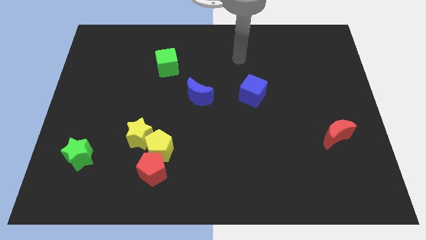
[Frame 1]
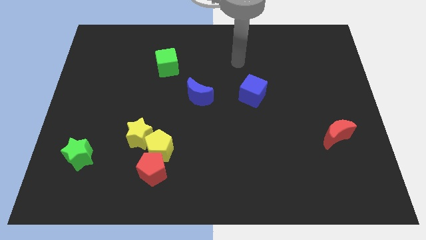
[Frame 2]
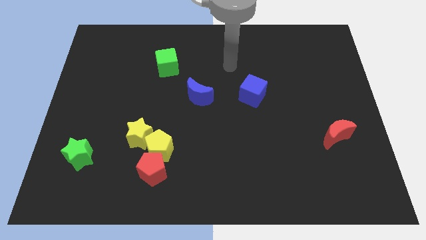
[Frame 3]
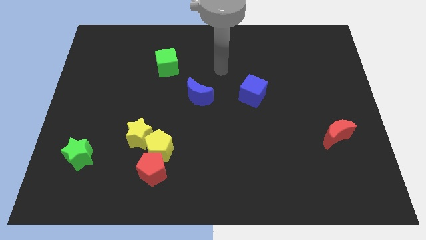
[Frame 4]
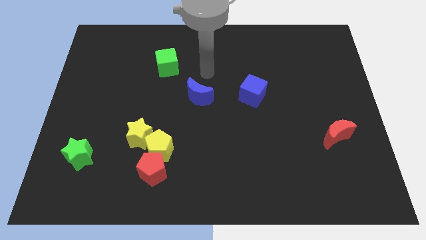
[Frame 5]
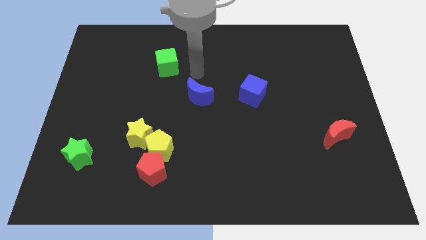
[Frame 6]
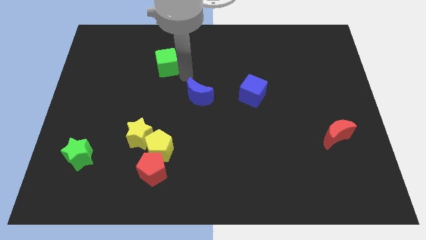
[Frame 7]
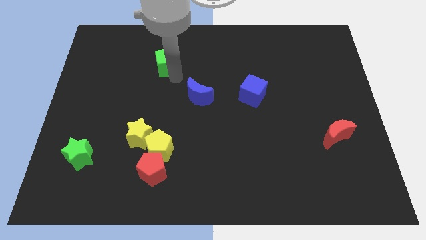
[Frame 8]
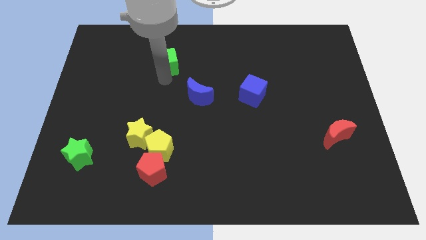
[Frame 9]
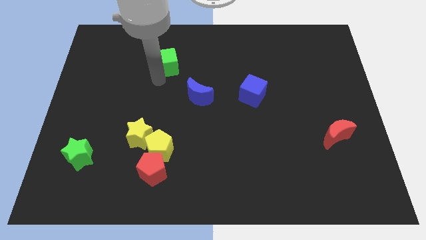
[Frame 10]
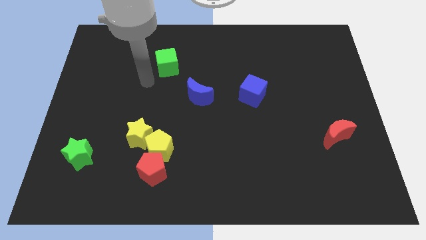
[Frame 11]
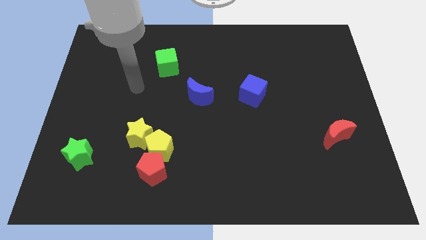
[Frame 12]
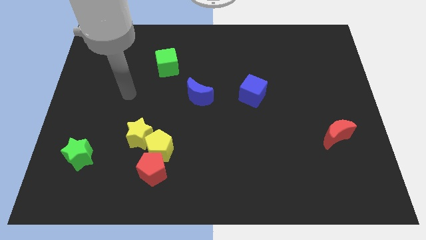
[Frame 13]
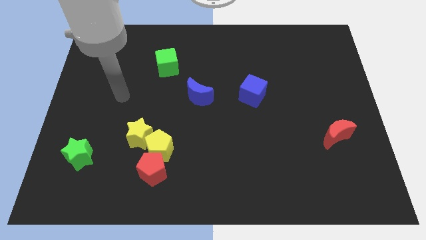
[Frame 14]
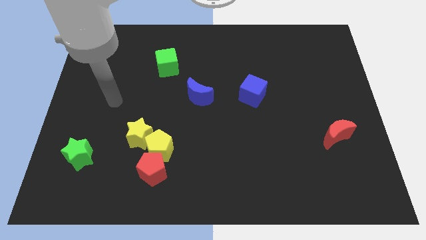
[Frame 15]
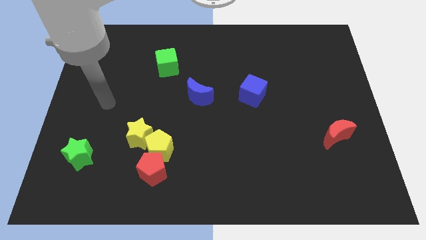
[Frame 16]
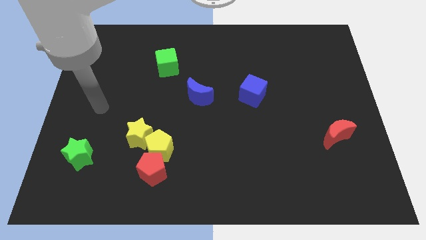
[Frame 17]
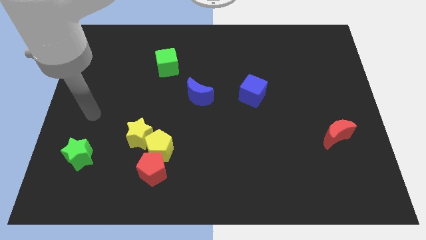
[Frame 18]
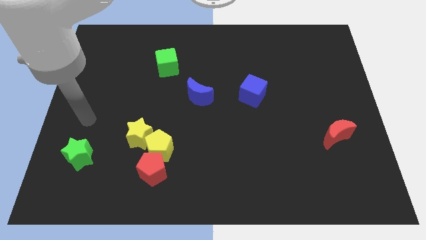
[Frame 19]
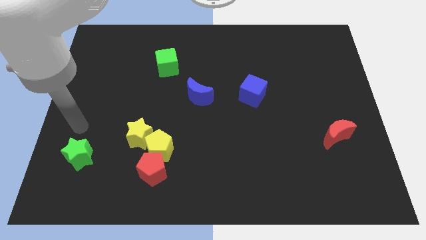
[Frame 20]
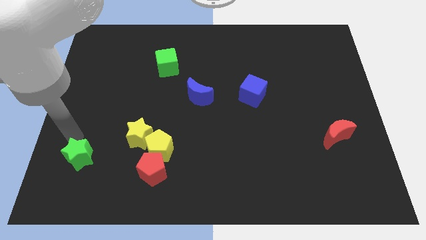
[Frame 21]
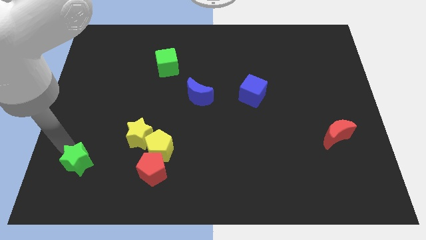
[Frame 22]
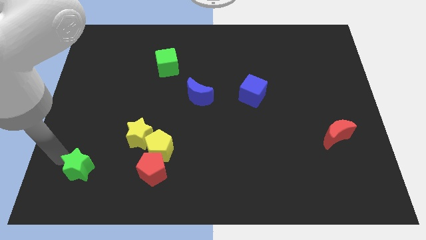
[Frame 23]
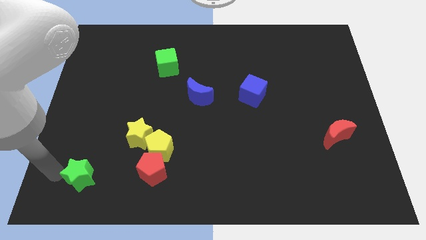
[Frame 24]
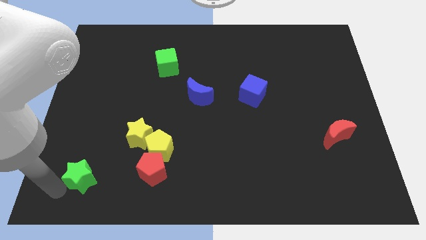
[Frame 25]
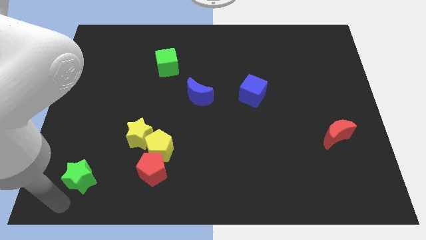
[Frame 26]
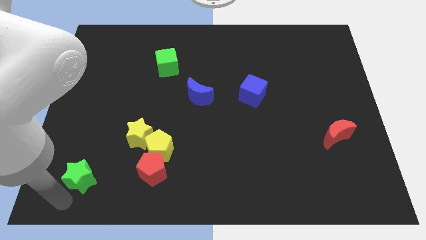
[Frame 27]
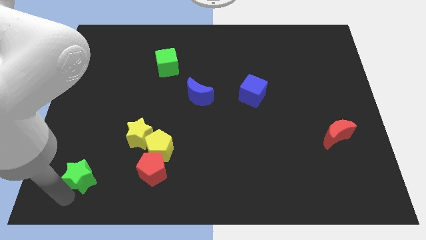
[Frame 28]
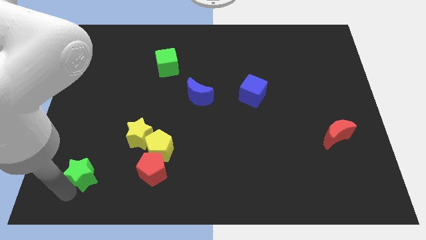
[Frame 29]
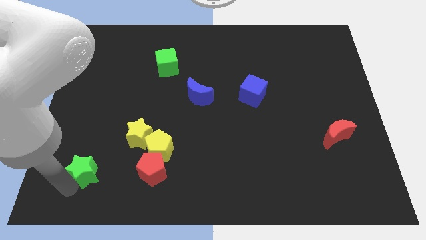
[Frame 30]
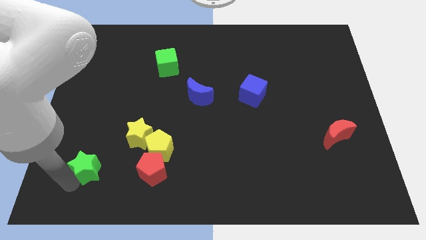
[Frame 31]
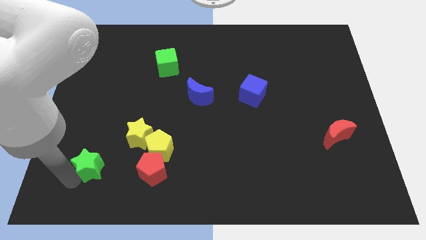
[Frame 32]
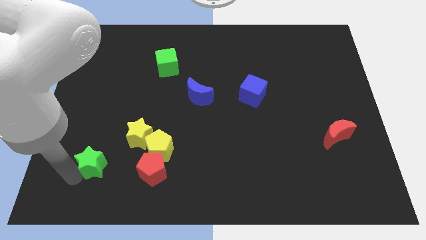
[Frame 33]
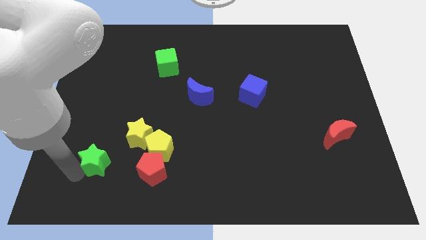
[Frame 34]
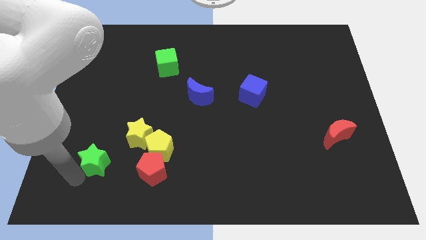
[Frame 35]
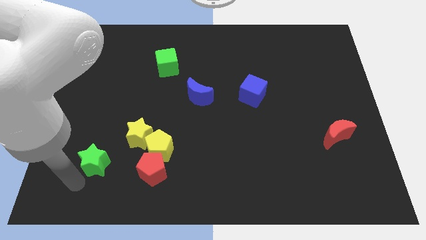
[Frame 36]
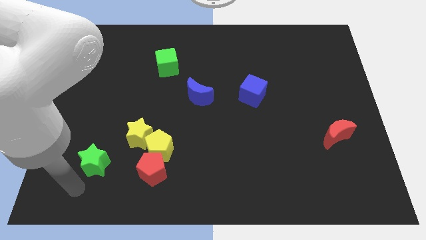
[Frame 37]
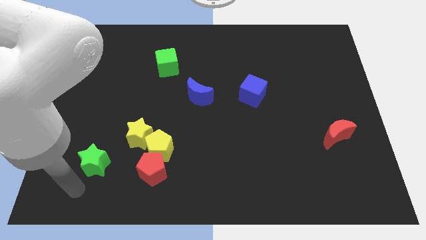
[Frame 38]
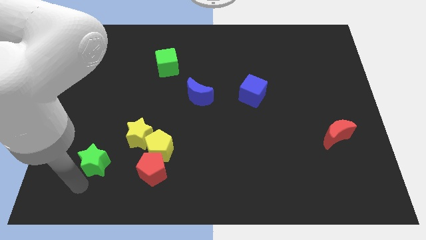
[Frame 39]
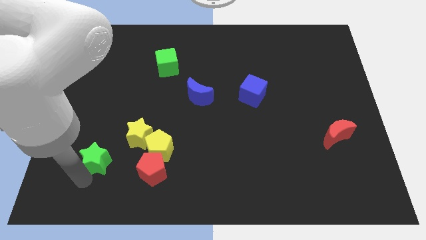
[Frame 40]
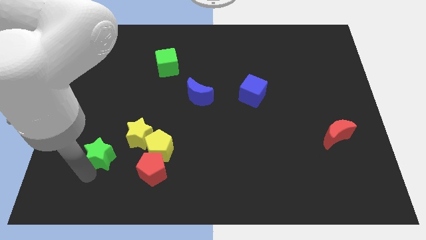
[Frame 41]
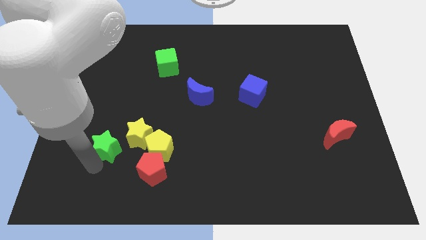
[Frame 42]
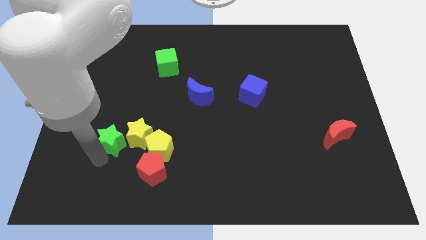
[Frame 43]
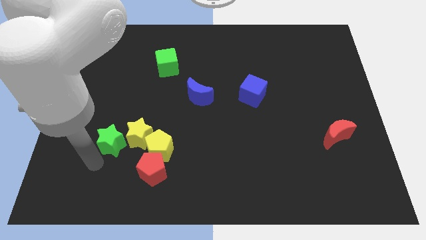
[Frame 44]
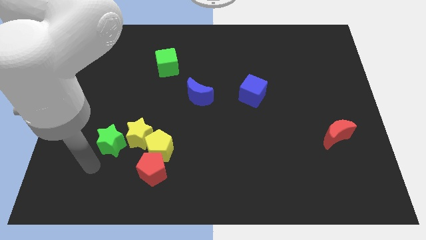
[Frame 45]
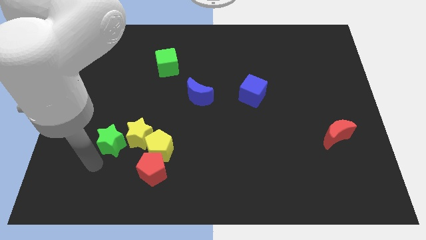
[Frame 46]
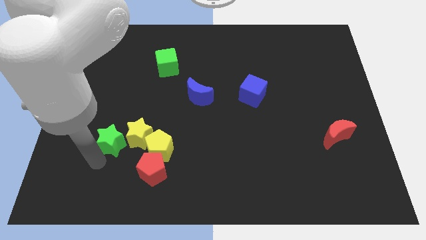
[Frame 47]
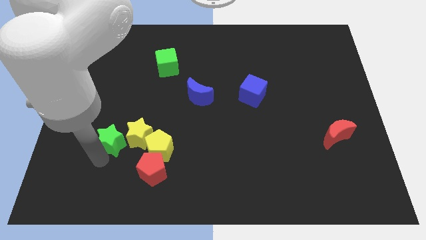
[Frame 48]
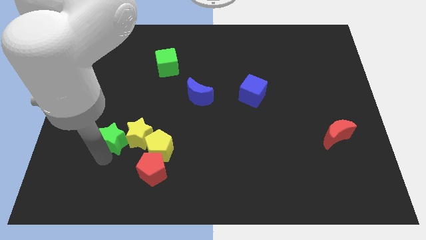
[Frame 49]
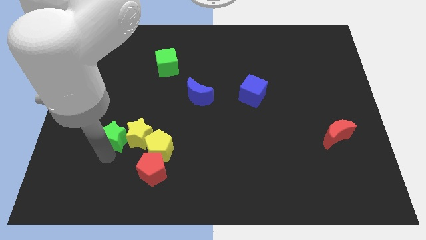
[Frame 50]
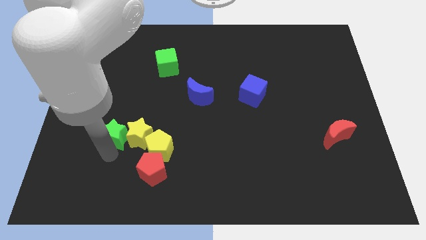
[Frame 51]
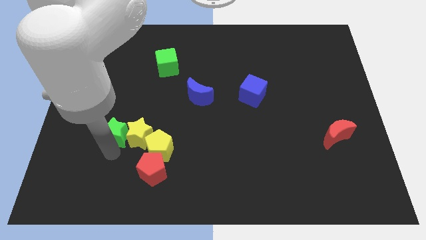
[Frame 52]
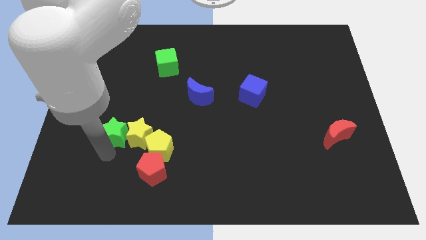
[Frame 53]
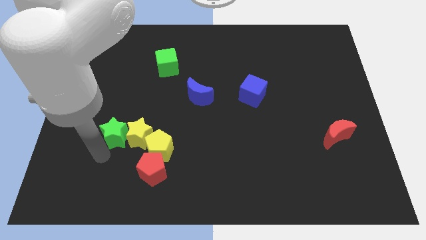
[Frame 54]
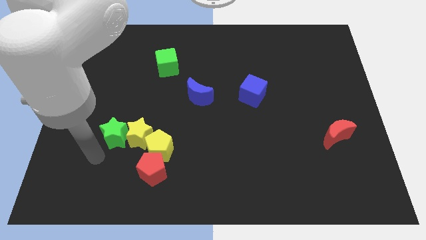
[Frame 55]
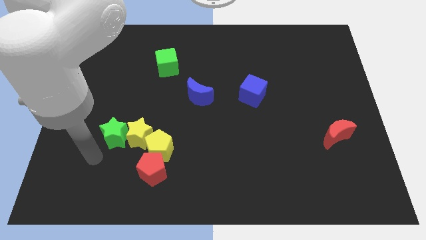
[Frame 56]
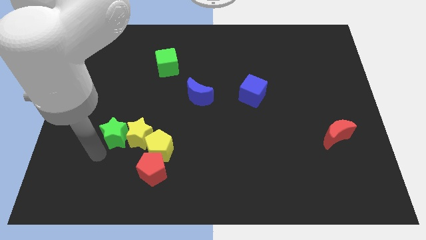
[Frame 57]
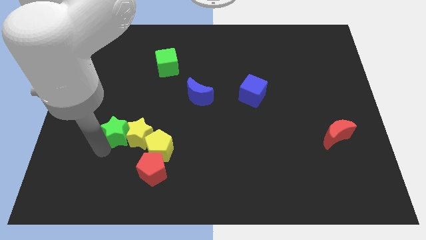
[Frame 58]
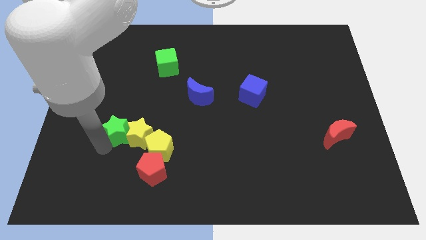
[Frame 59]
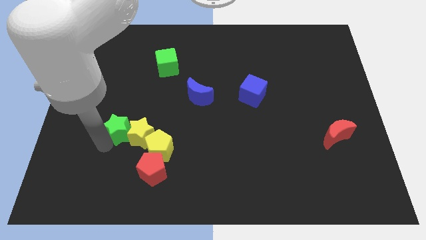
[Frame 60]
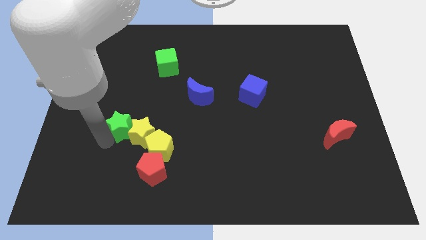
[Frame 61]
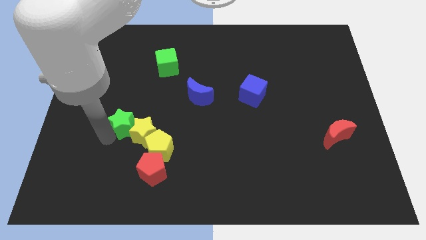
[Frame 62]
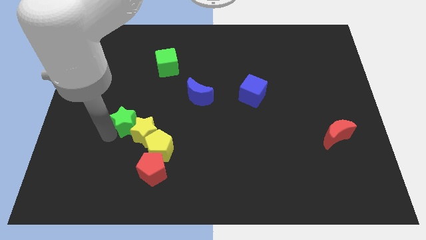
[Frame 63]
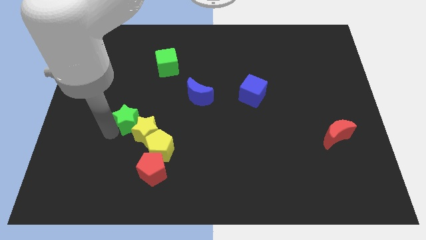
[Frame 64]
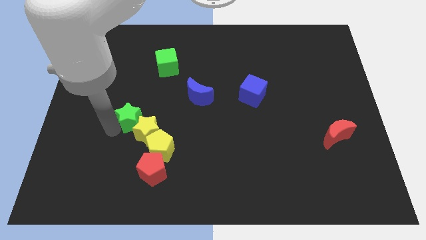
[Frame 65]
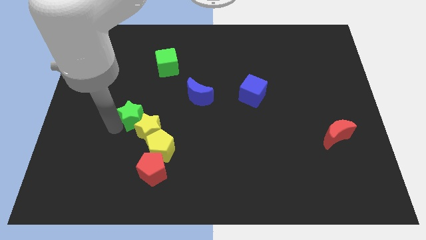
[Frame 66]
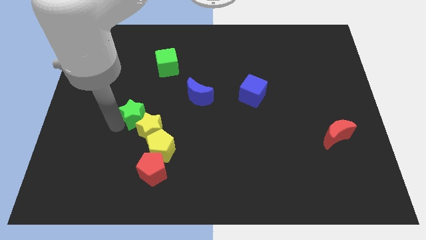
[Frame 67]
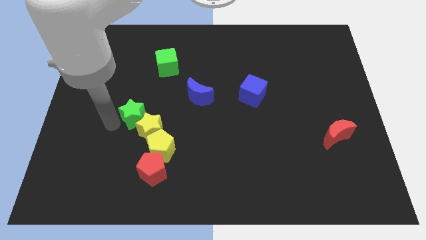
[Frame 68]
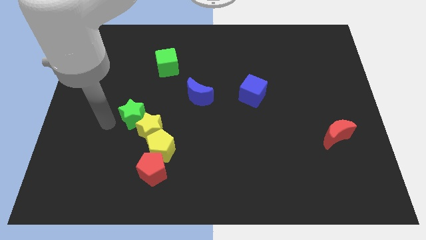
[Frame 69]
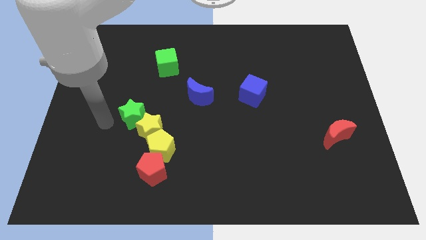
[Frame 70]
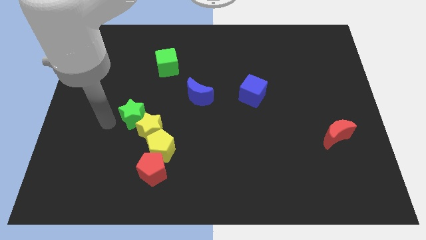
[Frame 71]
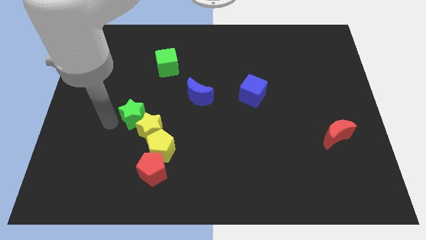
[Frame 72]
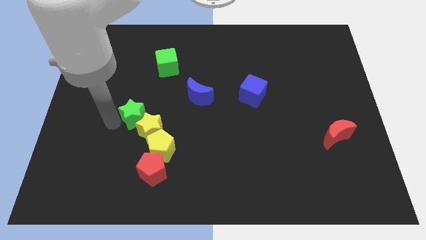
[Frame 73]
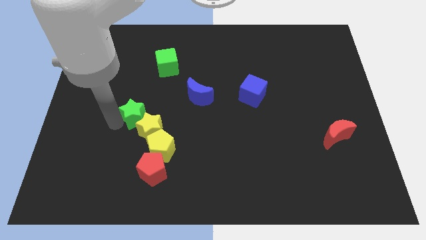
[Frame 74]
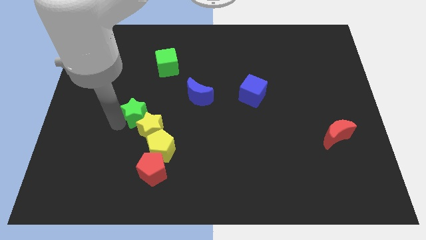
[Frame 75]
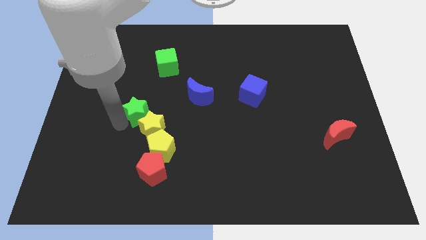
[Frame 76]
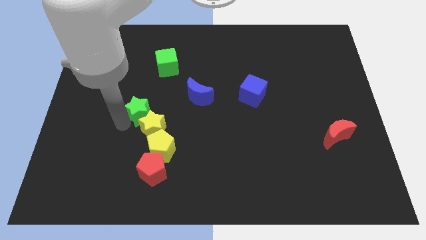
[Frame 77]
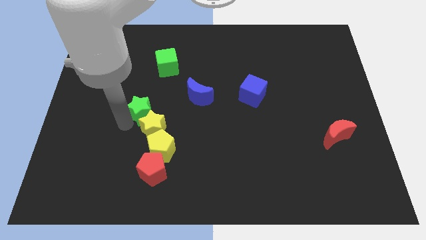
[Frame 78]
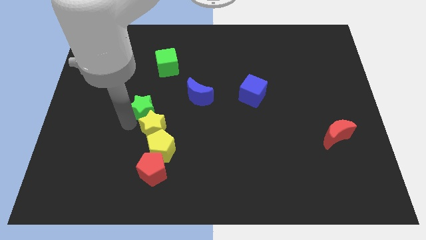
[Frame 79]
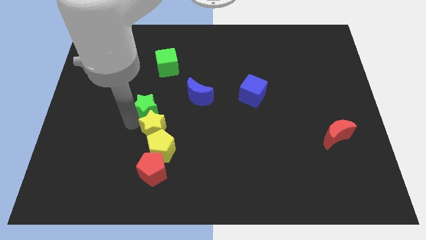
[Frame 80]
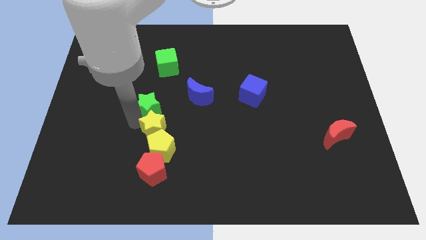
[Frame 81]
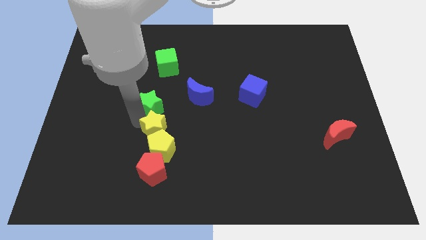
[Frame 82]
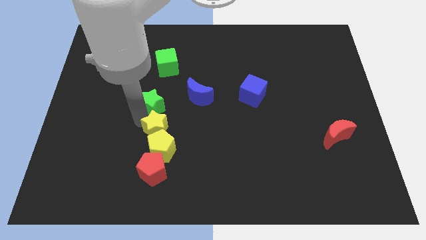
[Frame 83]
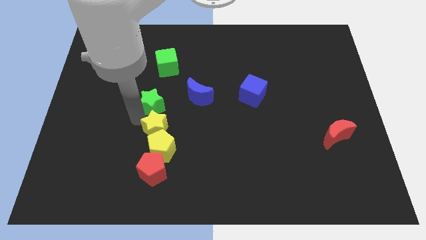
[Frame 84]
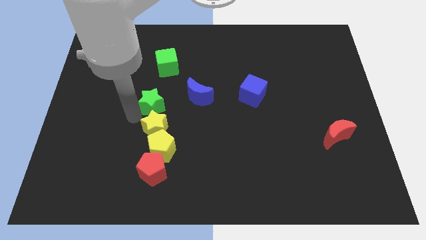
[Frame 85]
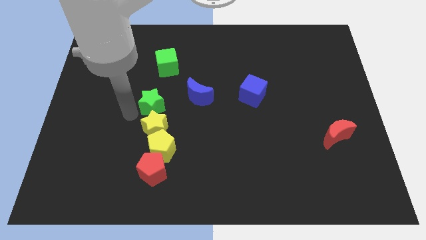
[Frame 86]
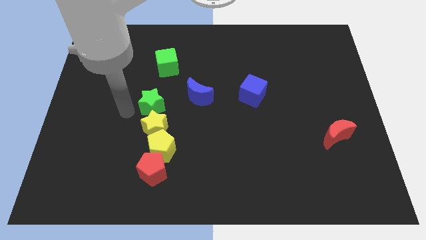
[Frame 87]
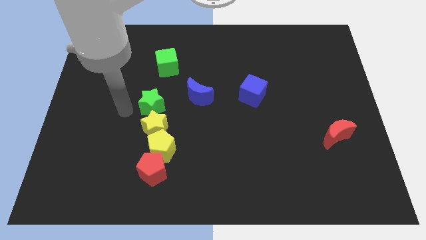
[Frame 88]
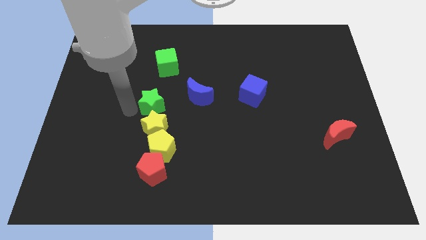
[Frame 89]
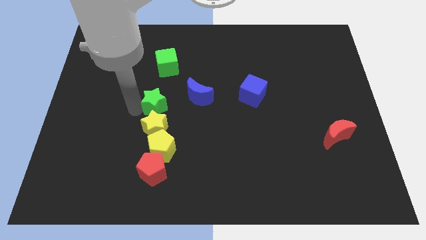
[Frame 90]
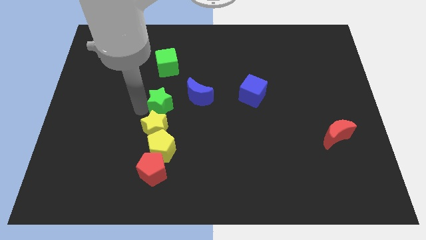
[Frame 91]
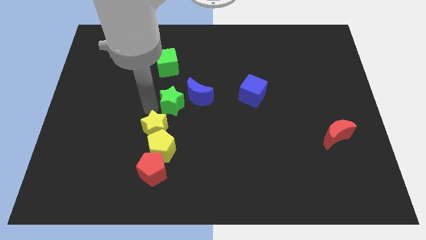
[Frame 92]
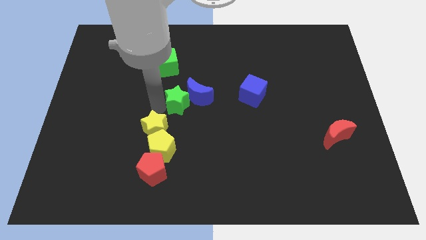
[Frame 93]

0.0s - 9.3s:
move the green star towards the blue moon
